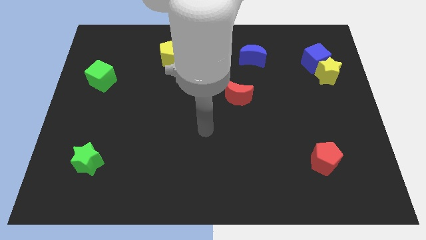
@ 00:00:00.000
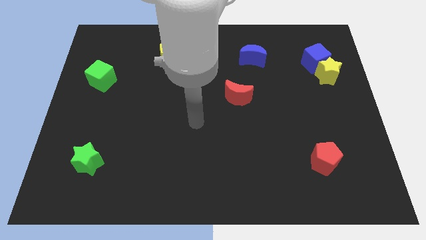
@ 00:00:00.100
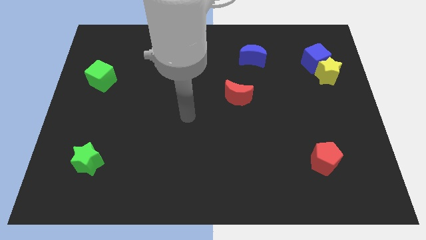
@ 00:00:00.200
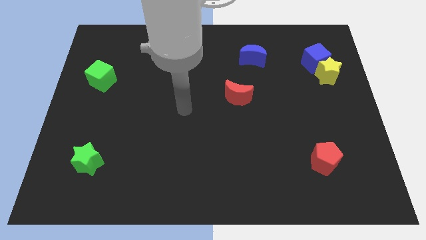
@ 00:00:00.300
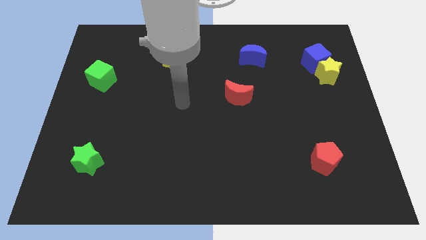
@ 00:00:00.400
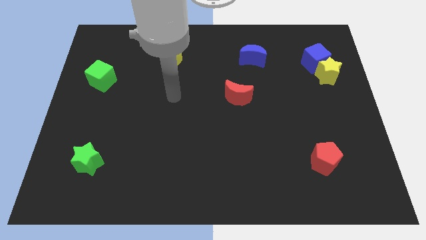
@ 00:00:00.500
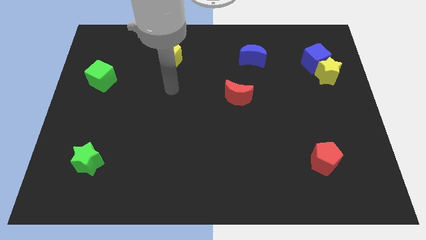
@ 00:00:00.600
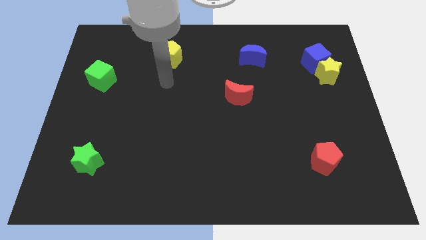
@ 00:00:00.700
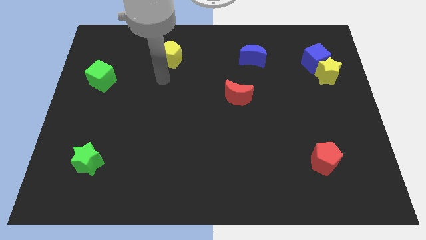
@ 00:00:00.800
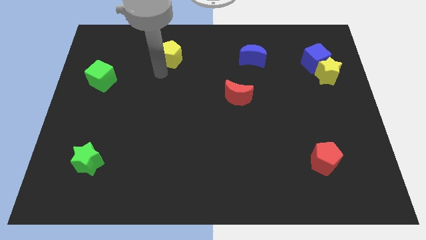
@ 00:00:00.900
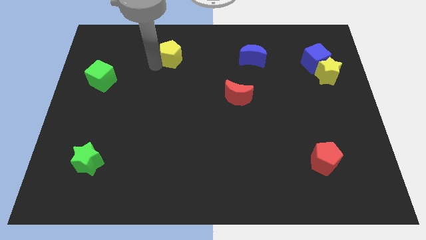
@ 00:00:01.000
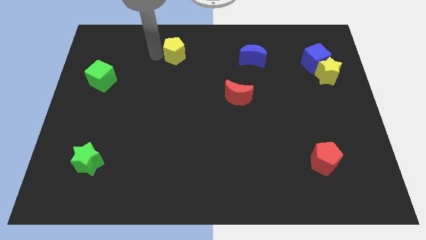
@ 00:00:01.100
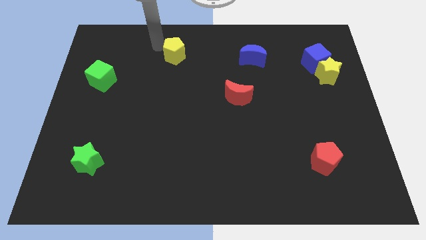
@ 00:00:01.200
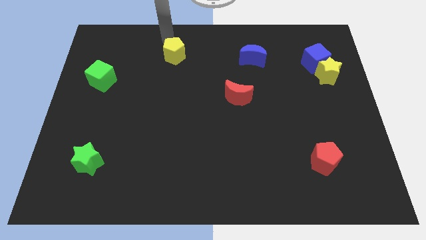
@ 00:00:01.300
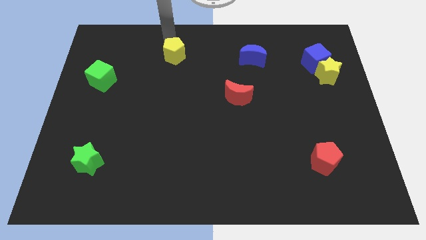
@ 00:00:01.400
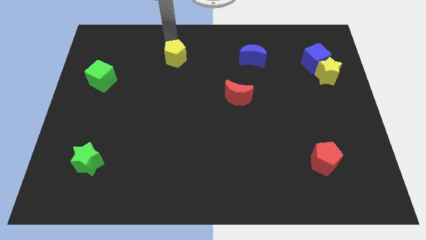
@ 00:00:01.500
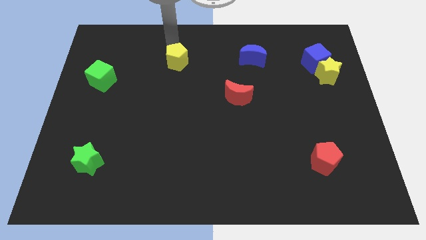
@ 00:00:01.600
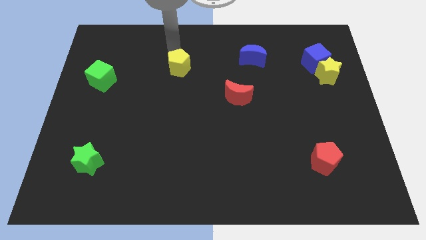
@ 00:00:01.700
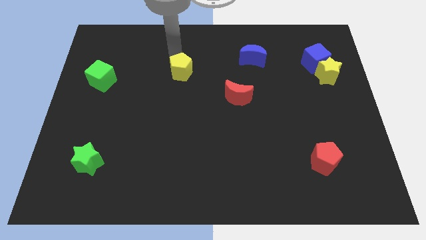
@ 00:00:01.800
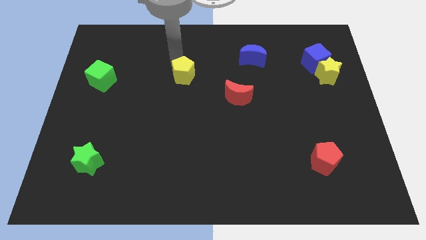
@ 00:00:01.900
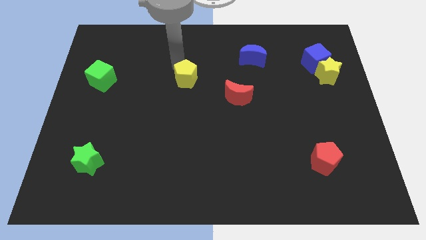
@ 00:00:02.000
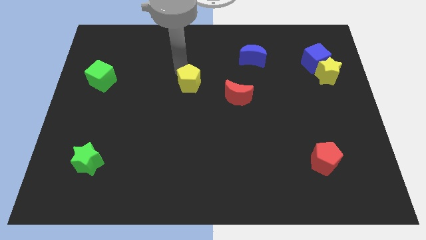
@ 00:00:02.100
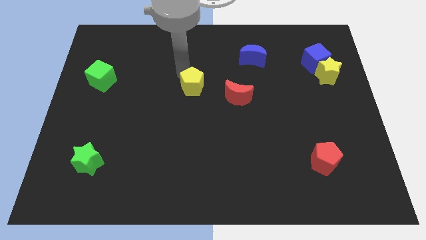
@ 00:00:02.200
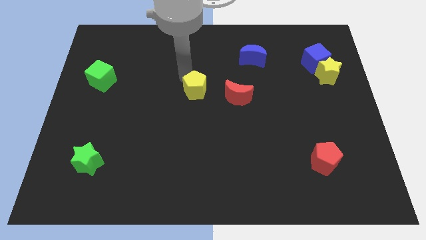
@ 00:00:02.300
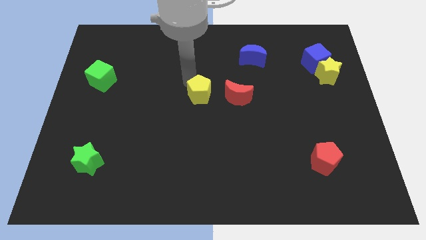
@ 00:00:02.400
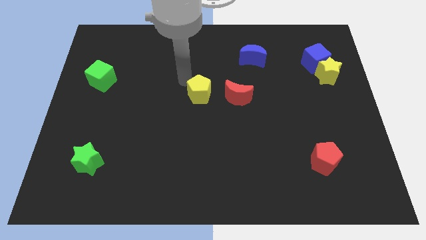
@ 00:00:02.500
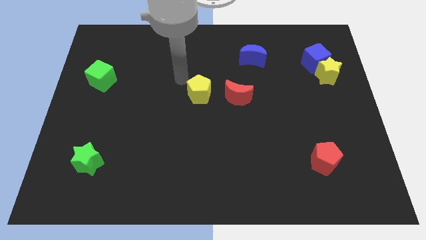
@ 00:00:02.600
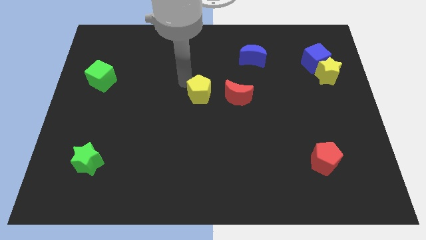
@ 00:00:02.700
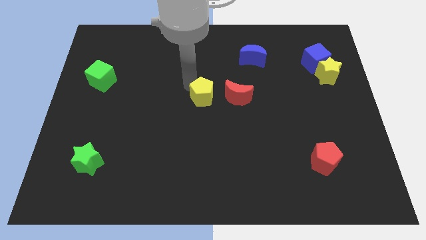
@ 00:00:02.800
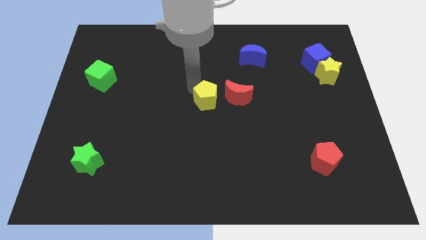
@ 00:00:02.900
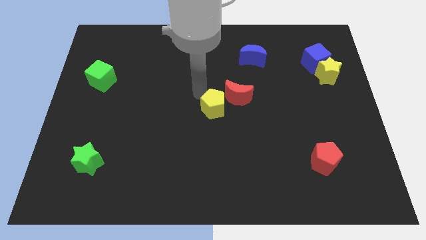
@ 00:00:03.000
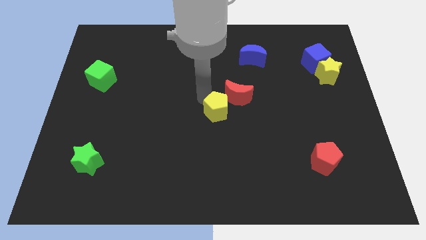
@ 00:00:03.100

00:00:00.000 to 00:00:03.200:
push the yellow pentagon diagonally downwards and to the right

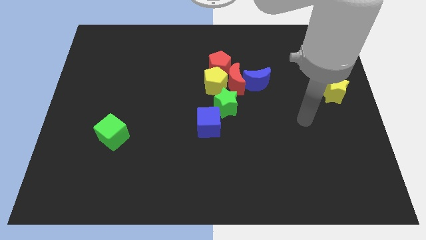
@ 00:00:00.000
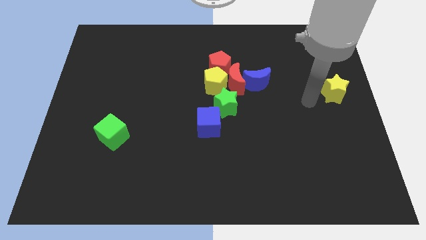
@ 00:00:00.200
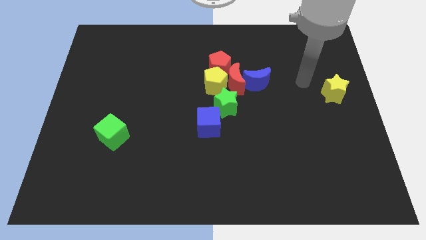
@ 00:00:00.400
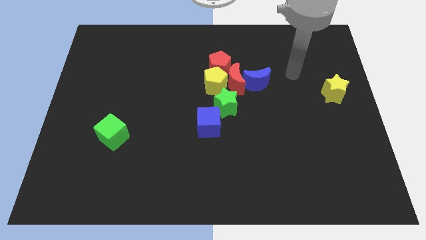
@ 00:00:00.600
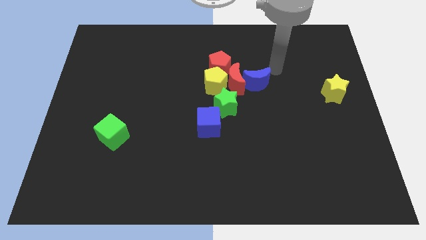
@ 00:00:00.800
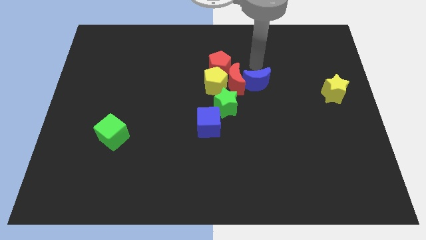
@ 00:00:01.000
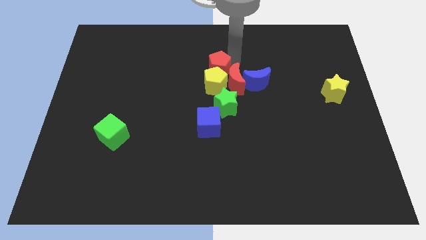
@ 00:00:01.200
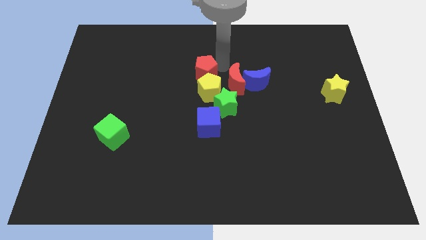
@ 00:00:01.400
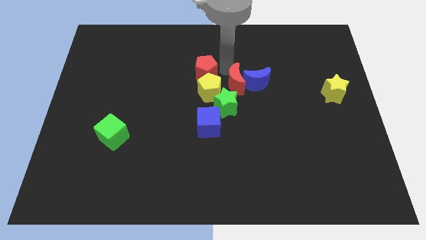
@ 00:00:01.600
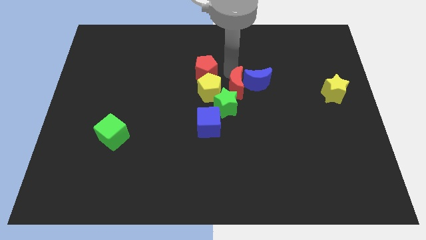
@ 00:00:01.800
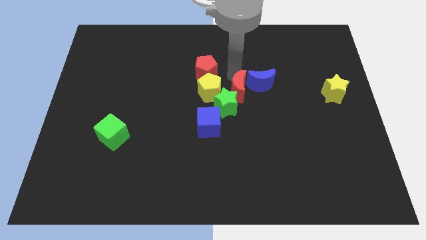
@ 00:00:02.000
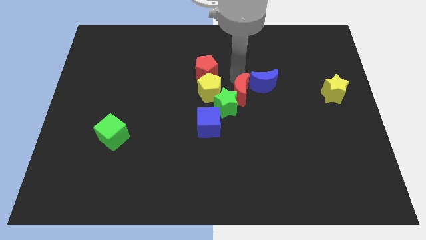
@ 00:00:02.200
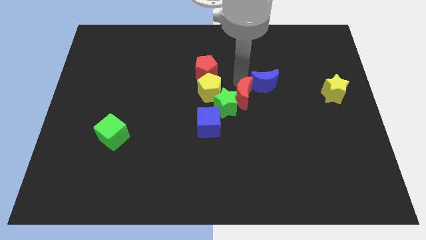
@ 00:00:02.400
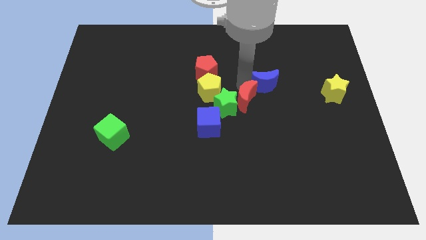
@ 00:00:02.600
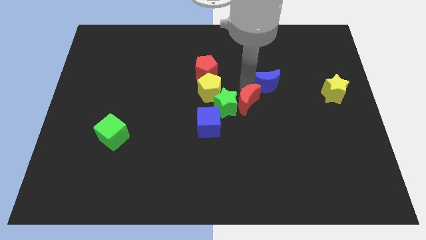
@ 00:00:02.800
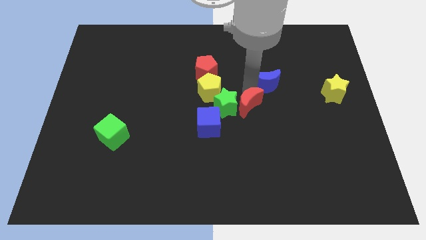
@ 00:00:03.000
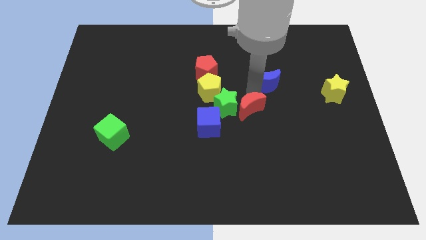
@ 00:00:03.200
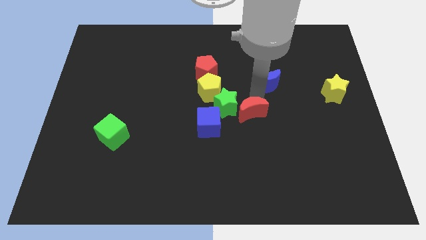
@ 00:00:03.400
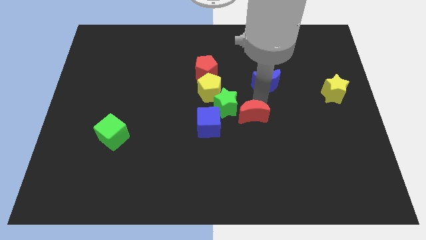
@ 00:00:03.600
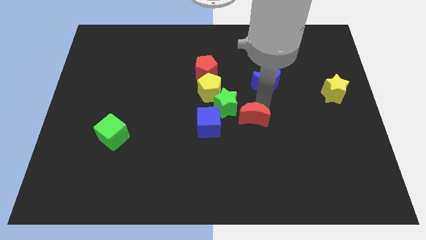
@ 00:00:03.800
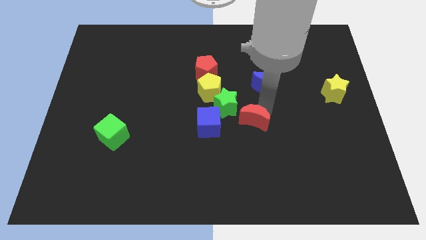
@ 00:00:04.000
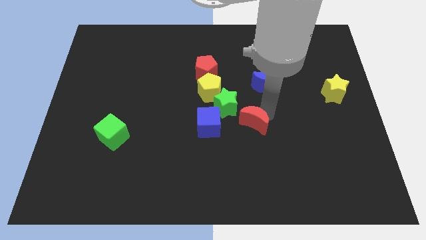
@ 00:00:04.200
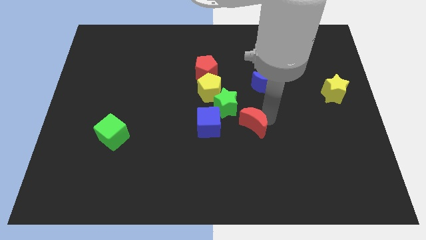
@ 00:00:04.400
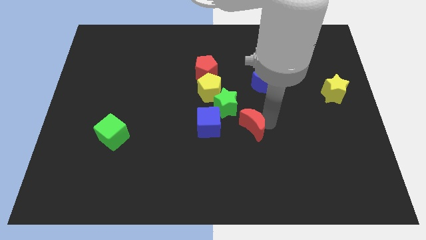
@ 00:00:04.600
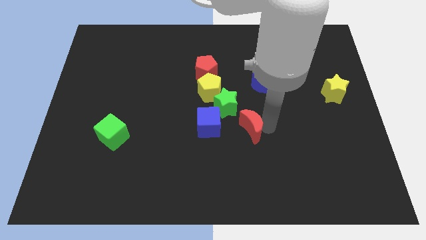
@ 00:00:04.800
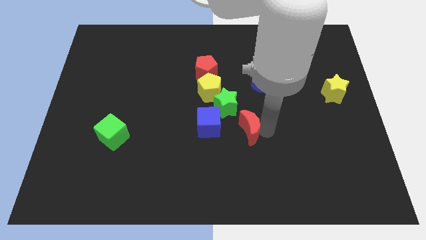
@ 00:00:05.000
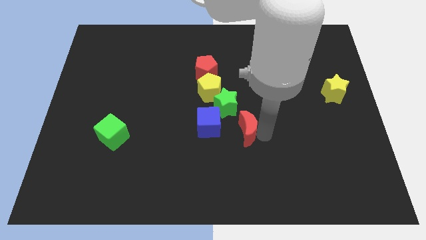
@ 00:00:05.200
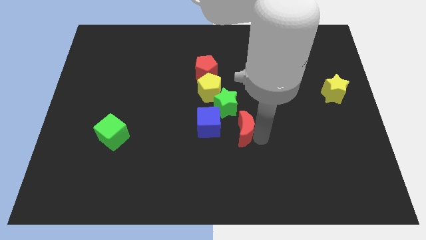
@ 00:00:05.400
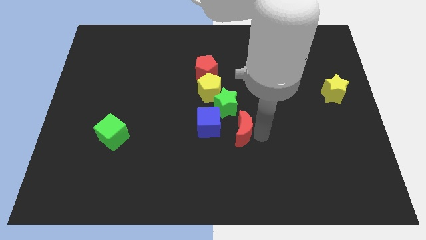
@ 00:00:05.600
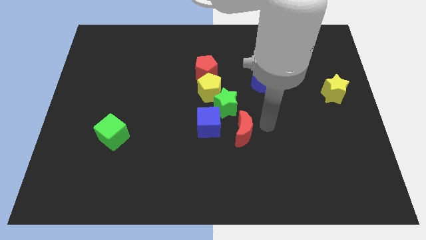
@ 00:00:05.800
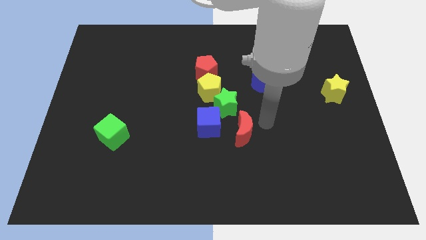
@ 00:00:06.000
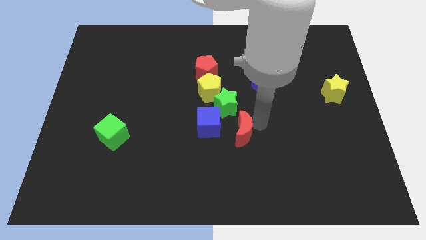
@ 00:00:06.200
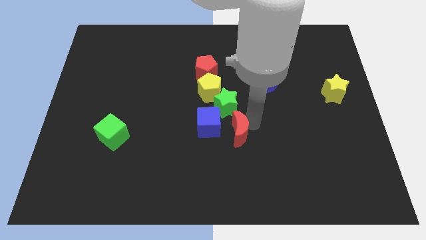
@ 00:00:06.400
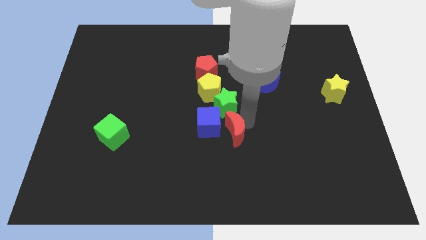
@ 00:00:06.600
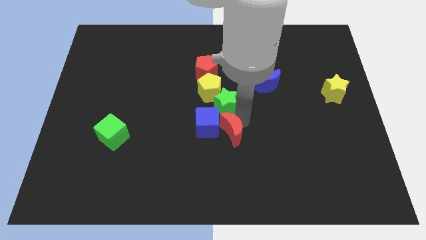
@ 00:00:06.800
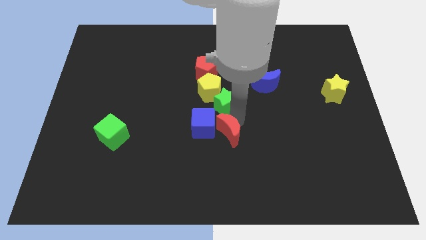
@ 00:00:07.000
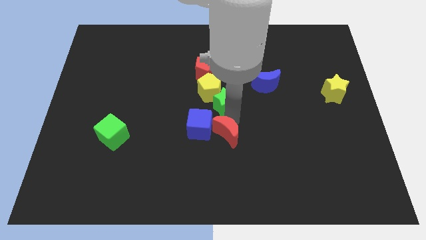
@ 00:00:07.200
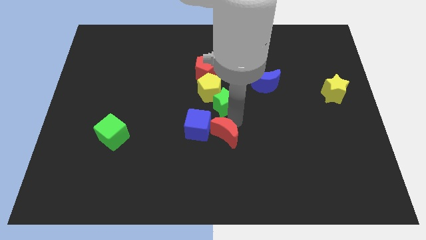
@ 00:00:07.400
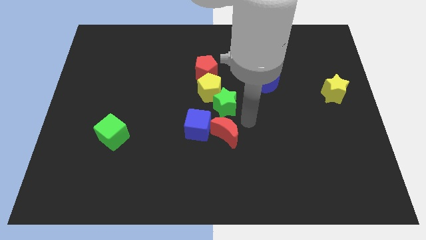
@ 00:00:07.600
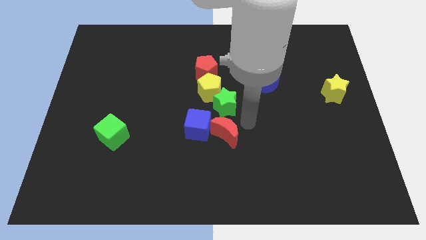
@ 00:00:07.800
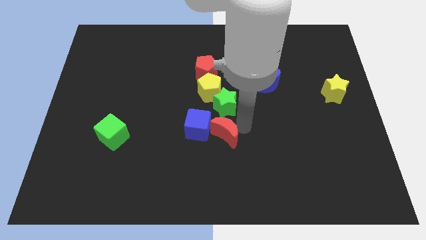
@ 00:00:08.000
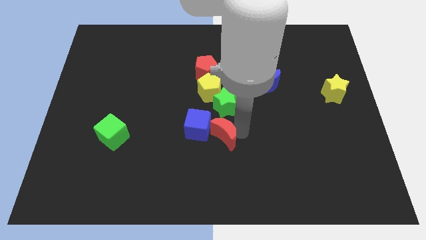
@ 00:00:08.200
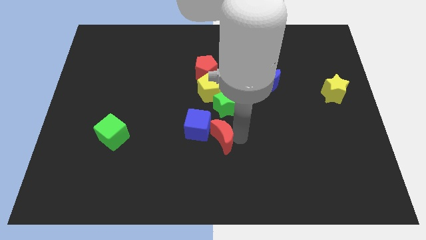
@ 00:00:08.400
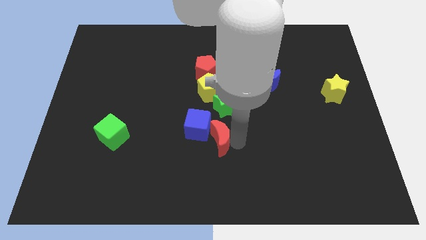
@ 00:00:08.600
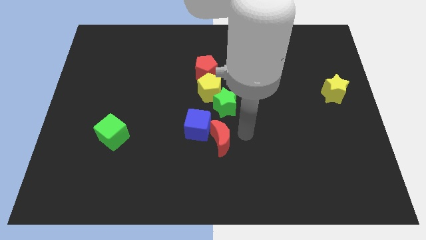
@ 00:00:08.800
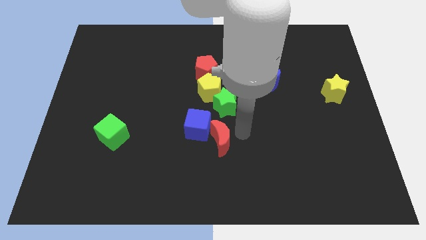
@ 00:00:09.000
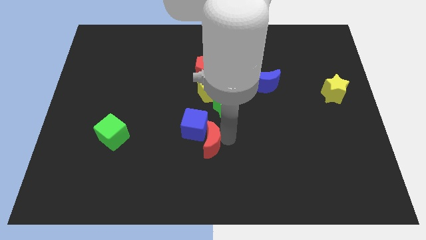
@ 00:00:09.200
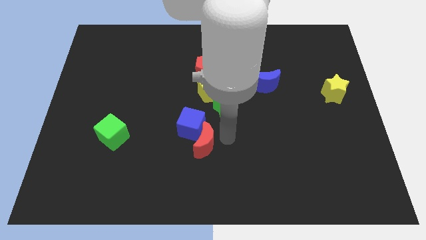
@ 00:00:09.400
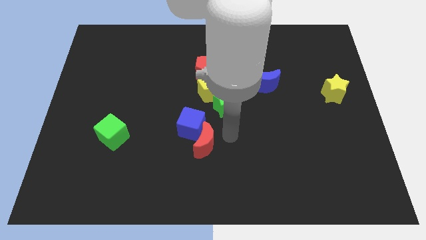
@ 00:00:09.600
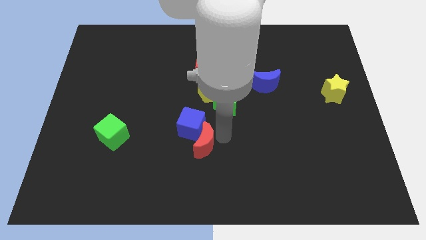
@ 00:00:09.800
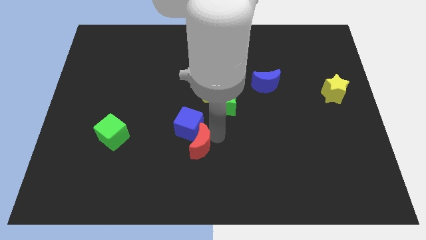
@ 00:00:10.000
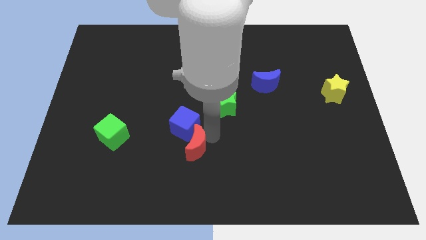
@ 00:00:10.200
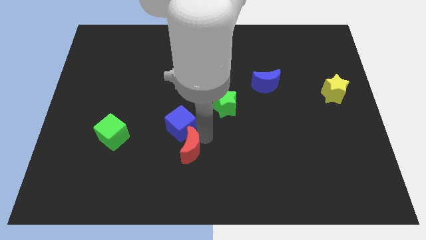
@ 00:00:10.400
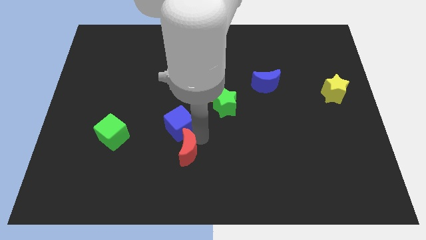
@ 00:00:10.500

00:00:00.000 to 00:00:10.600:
push the red moon down and then to the left
